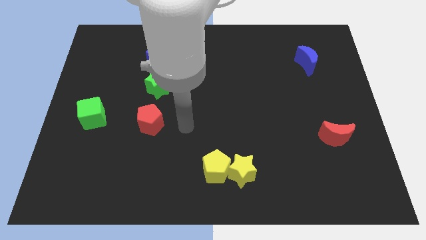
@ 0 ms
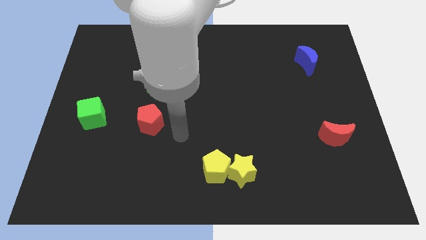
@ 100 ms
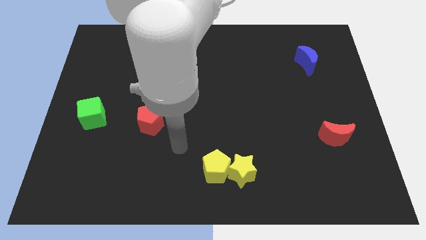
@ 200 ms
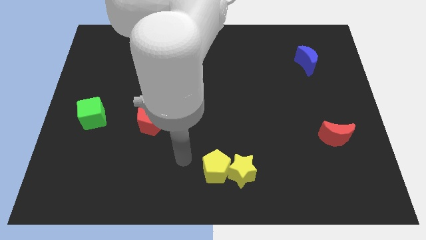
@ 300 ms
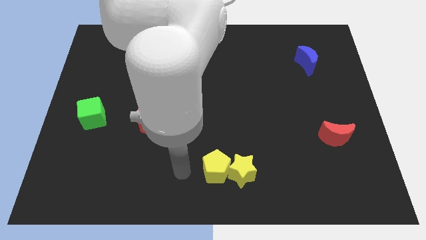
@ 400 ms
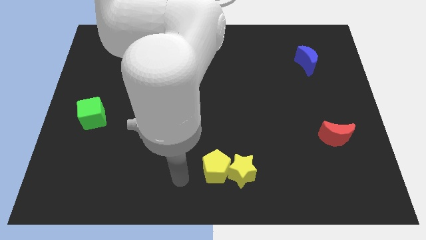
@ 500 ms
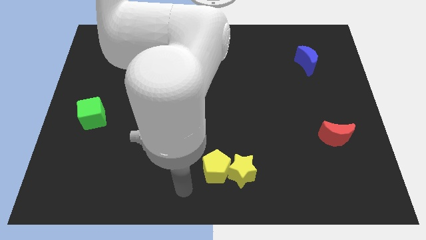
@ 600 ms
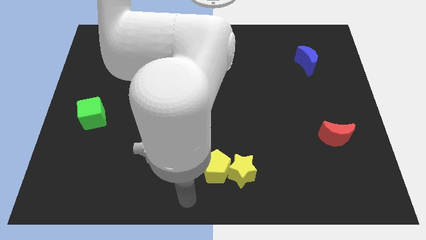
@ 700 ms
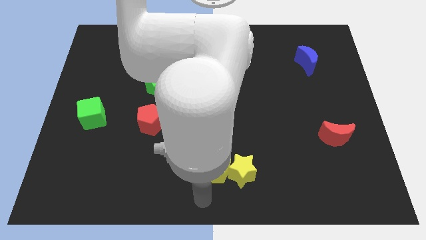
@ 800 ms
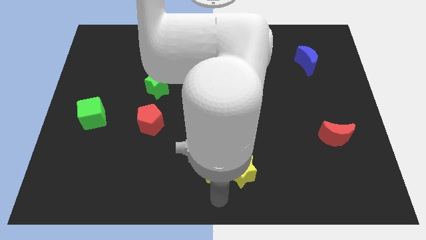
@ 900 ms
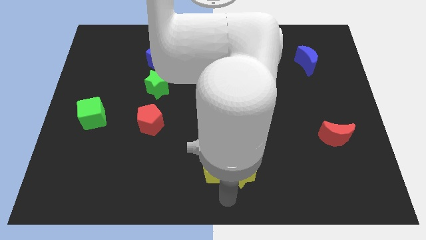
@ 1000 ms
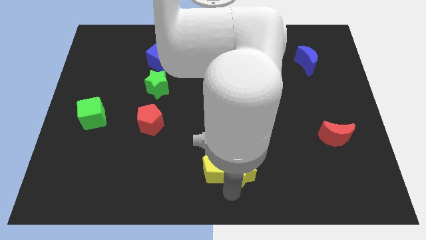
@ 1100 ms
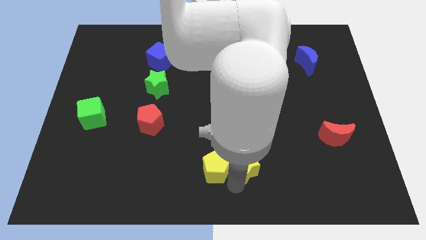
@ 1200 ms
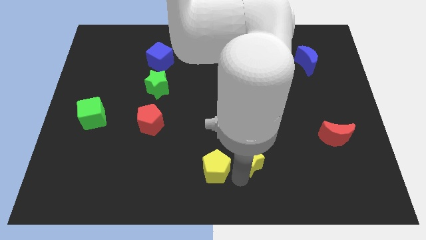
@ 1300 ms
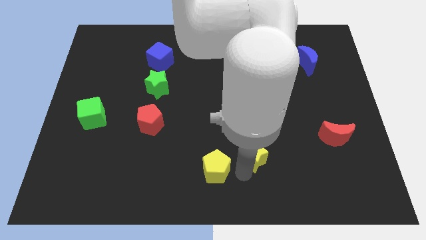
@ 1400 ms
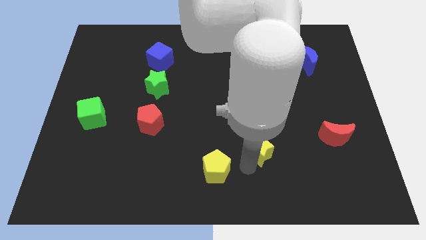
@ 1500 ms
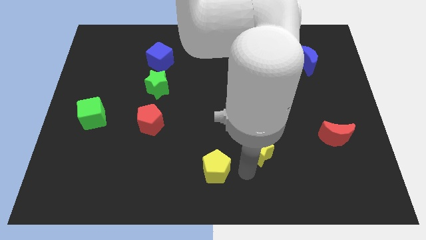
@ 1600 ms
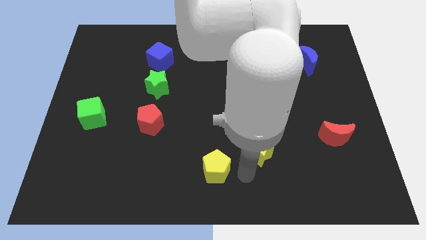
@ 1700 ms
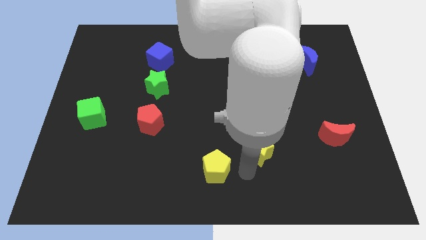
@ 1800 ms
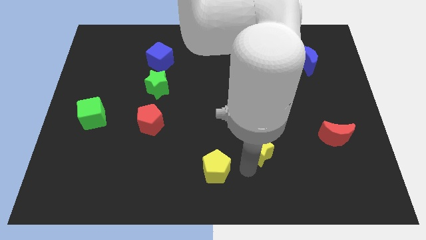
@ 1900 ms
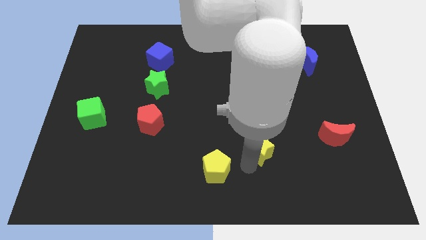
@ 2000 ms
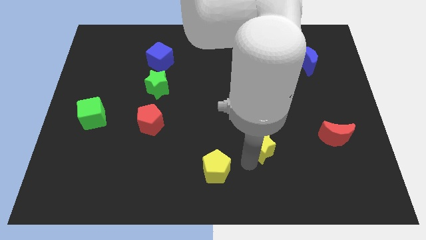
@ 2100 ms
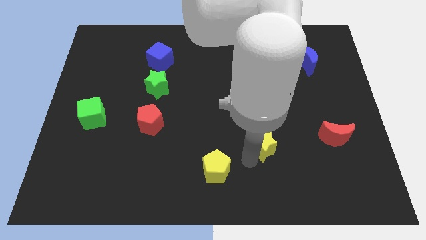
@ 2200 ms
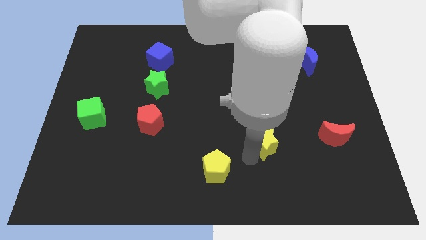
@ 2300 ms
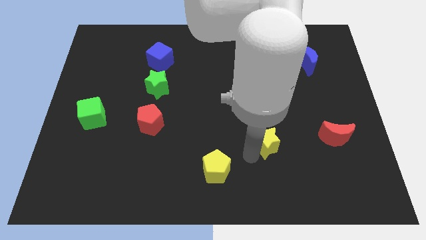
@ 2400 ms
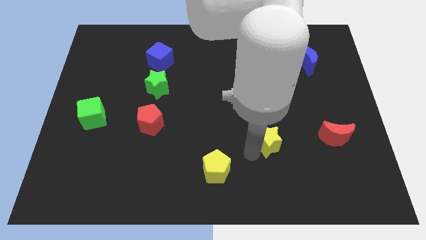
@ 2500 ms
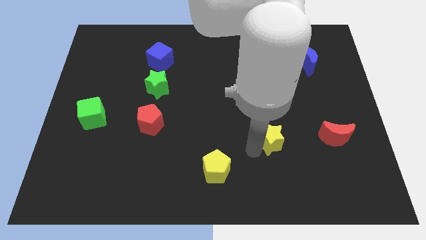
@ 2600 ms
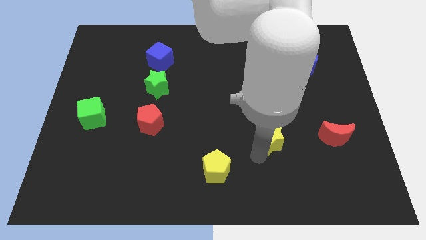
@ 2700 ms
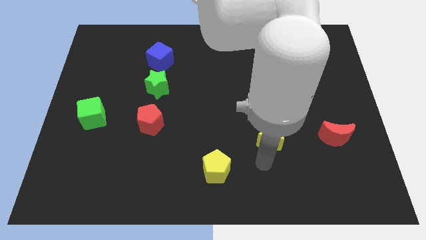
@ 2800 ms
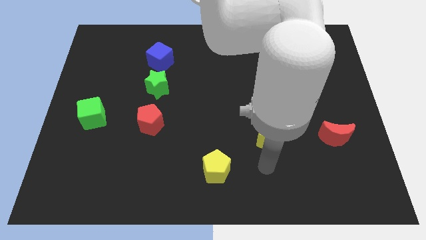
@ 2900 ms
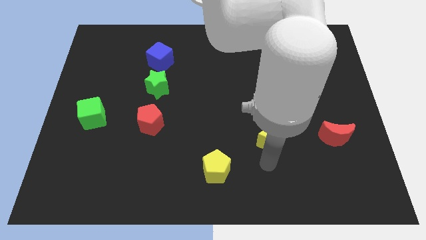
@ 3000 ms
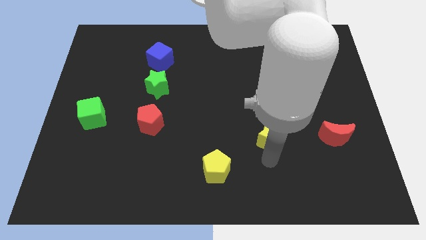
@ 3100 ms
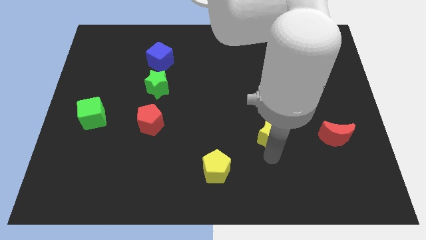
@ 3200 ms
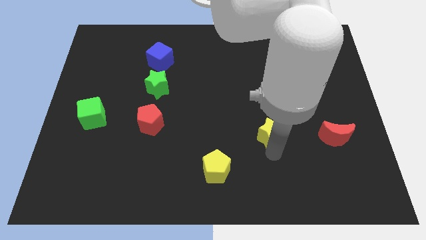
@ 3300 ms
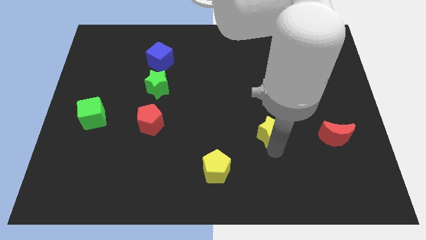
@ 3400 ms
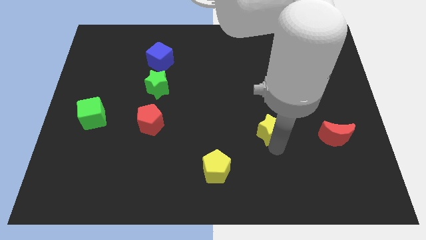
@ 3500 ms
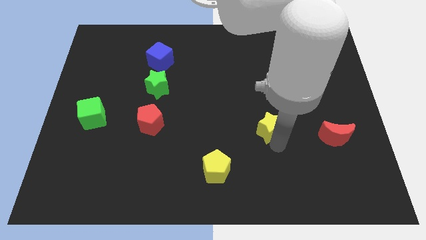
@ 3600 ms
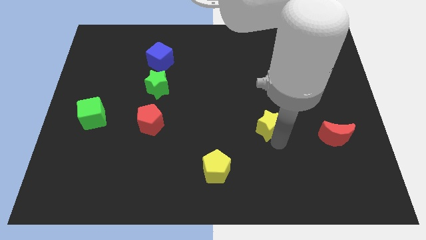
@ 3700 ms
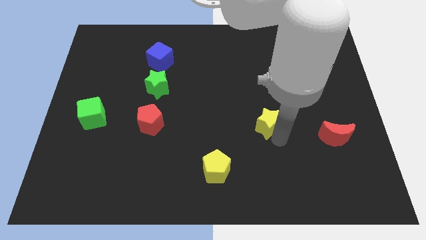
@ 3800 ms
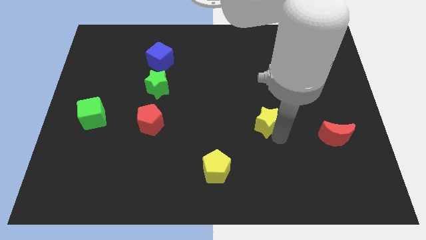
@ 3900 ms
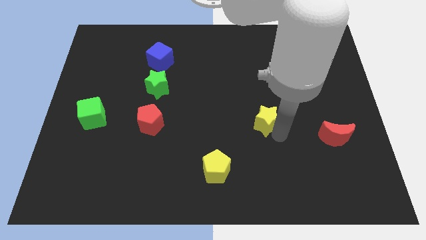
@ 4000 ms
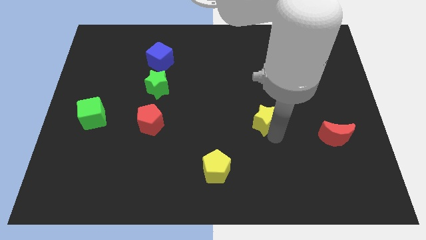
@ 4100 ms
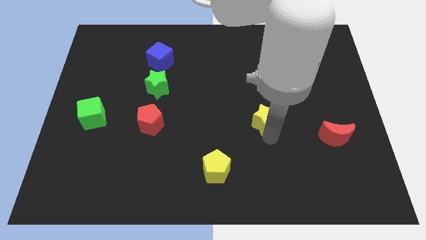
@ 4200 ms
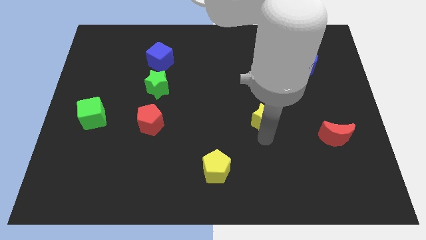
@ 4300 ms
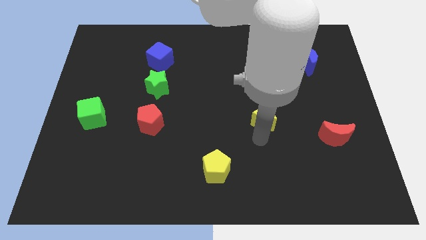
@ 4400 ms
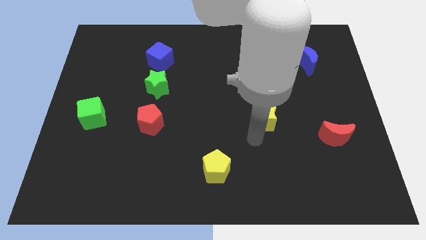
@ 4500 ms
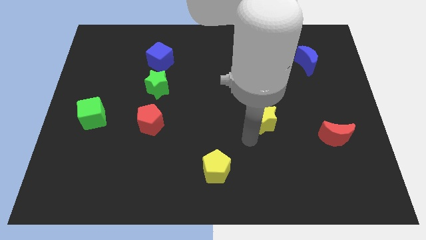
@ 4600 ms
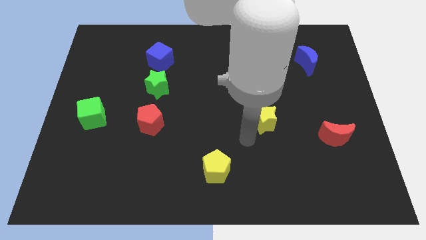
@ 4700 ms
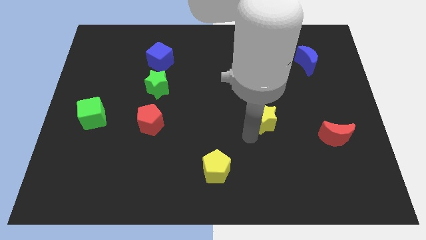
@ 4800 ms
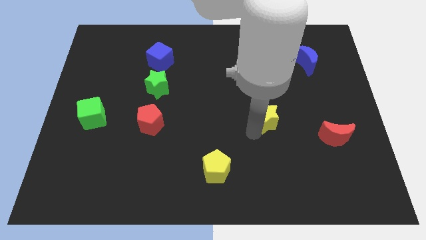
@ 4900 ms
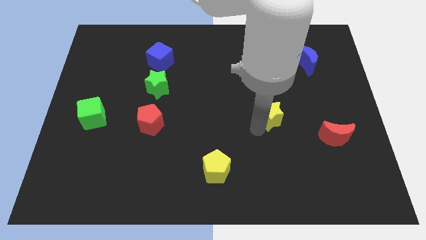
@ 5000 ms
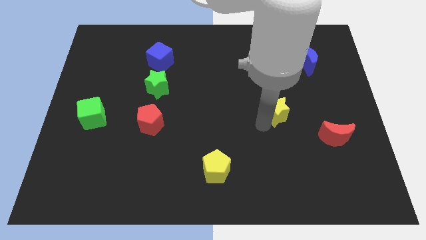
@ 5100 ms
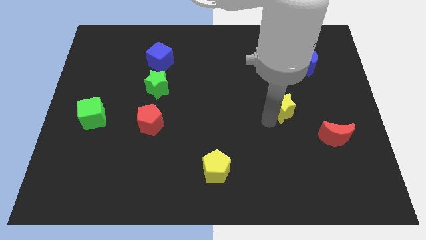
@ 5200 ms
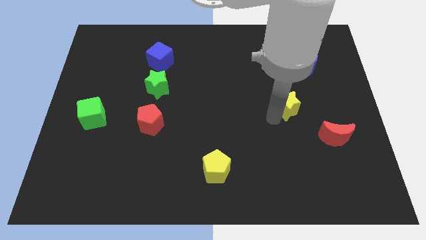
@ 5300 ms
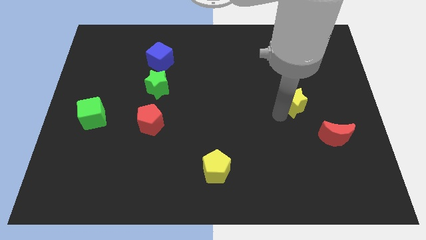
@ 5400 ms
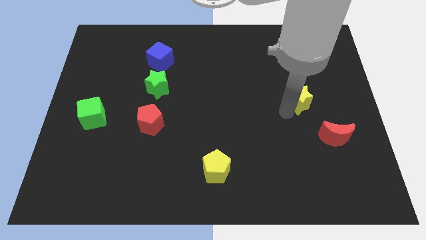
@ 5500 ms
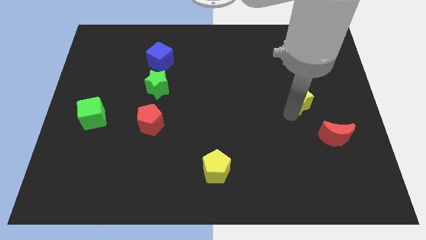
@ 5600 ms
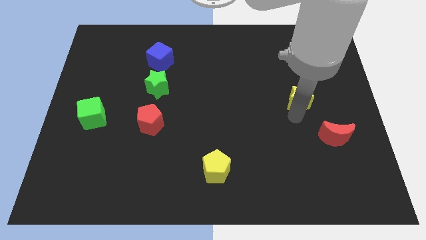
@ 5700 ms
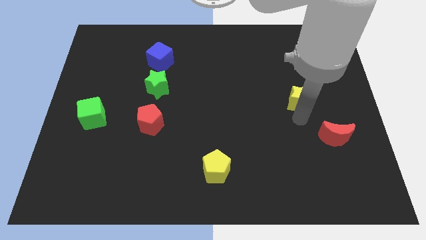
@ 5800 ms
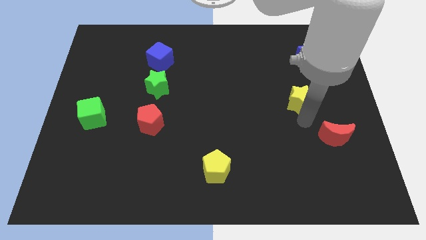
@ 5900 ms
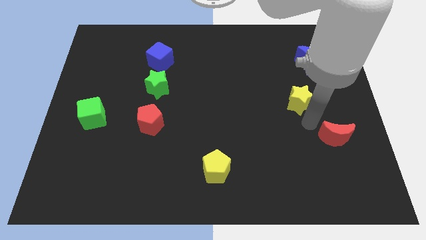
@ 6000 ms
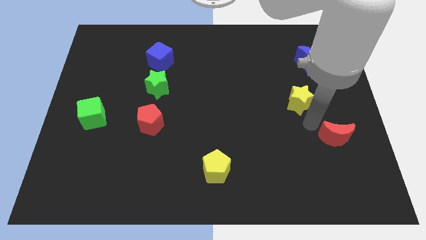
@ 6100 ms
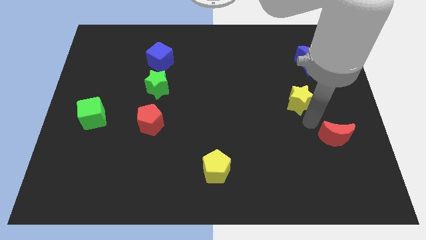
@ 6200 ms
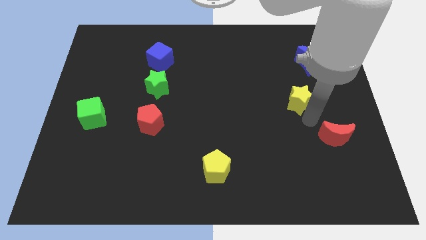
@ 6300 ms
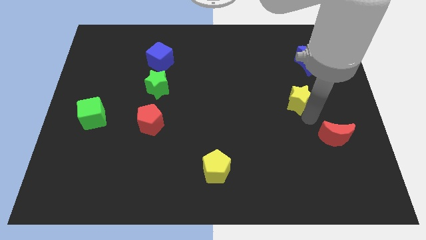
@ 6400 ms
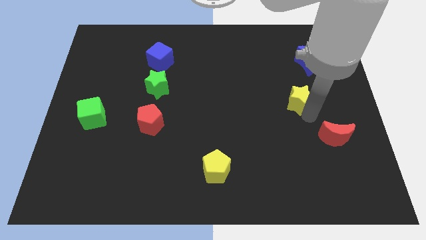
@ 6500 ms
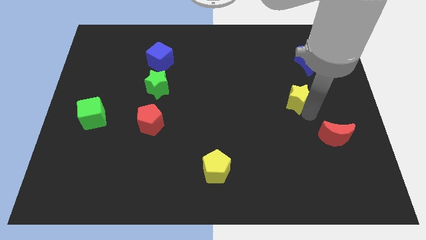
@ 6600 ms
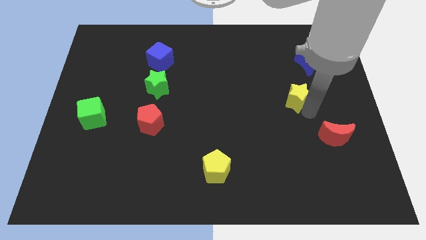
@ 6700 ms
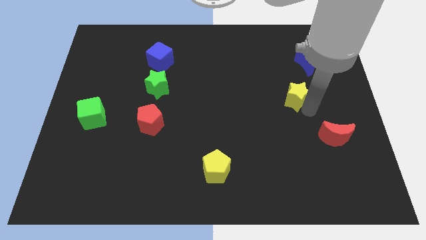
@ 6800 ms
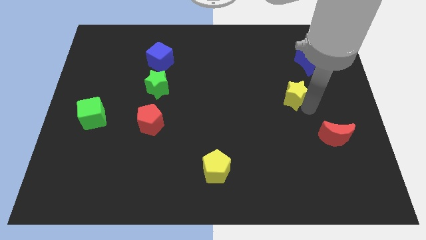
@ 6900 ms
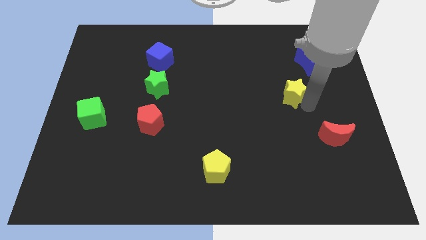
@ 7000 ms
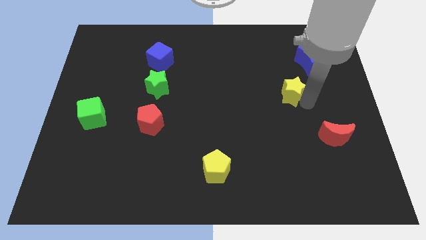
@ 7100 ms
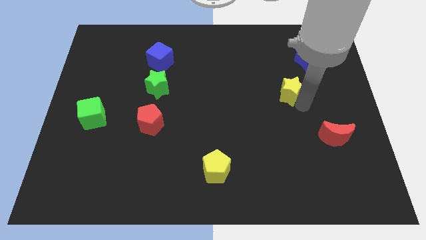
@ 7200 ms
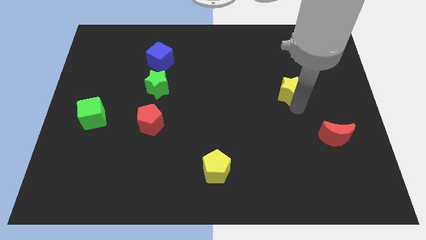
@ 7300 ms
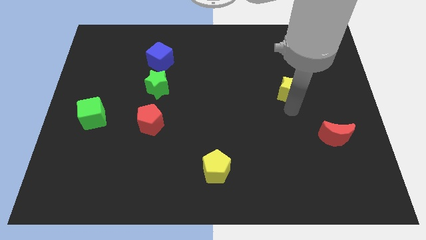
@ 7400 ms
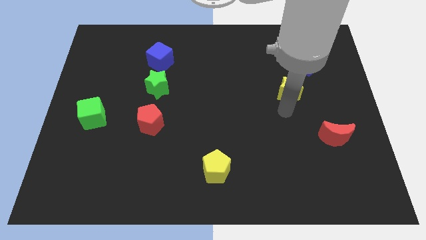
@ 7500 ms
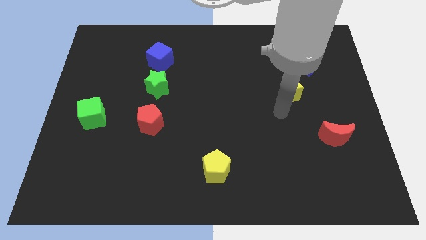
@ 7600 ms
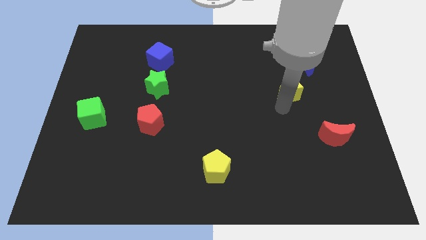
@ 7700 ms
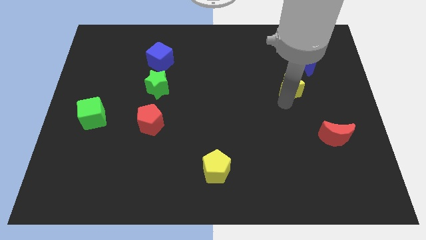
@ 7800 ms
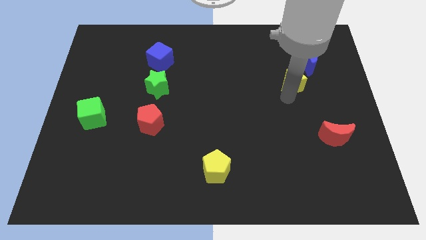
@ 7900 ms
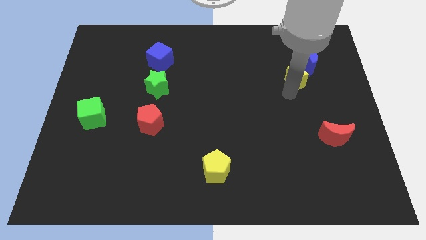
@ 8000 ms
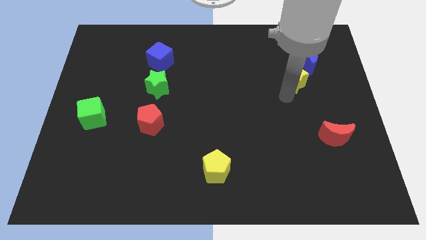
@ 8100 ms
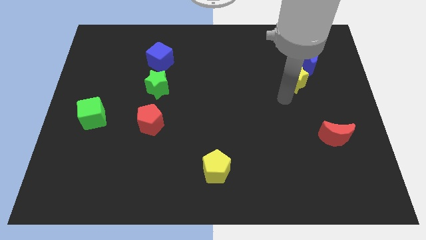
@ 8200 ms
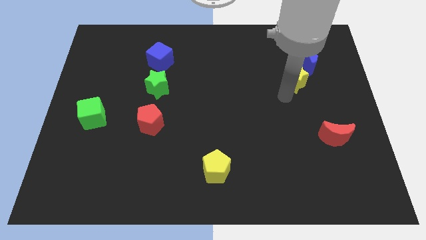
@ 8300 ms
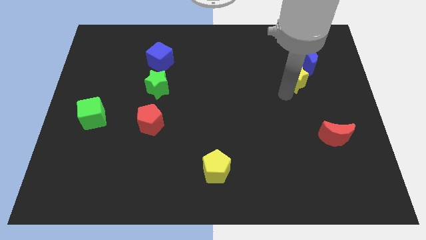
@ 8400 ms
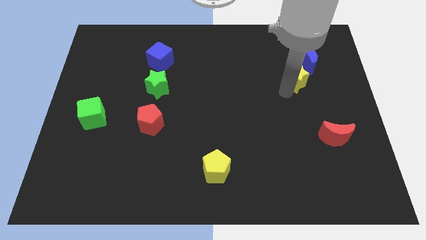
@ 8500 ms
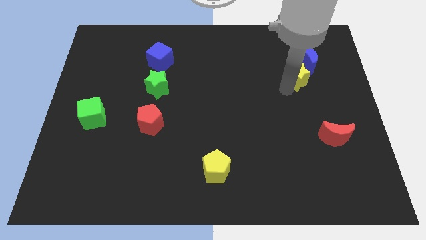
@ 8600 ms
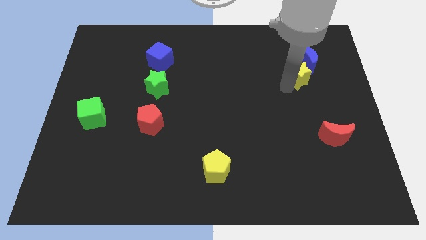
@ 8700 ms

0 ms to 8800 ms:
push the yellow star next to the blue moon
